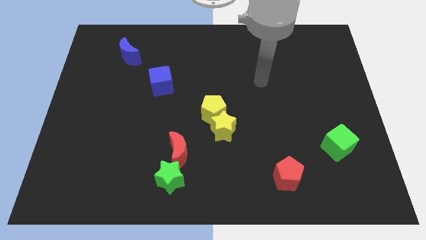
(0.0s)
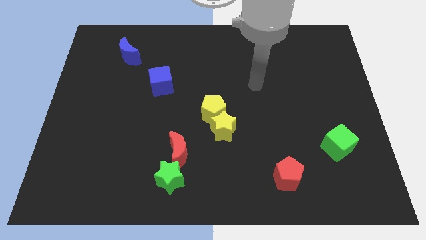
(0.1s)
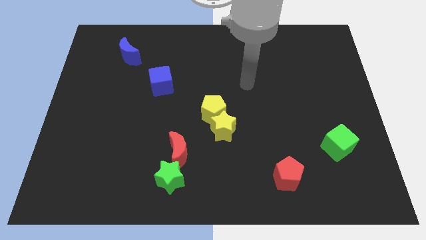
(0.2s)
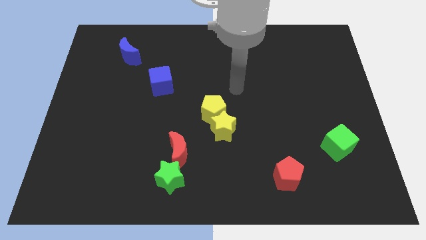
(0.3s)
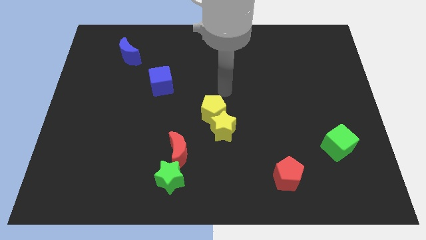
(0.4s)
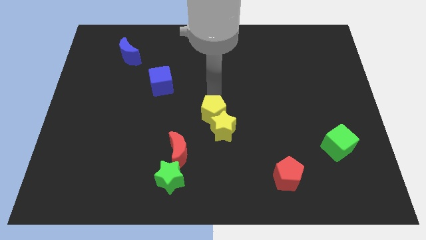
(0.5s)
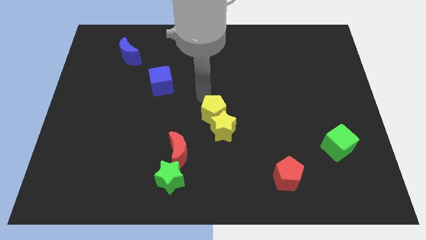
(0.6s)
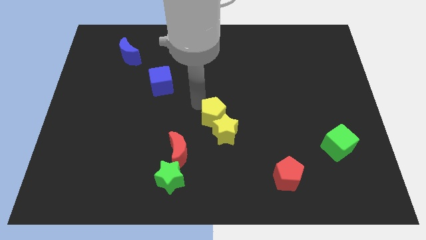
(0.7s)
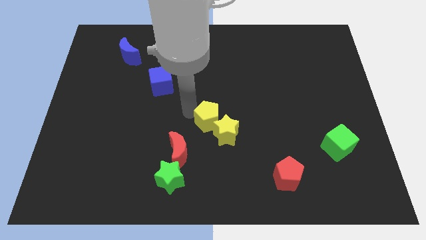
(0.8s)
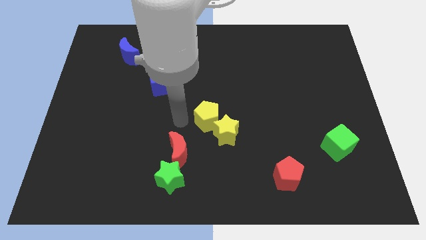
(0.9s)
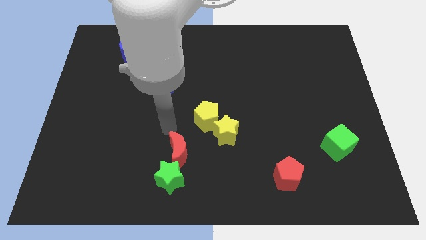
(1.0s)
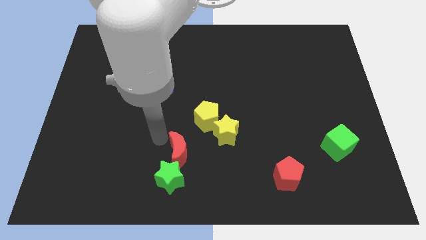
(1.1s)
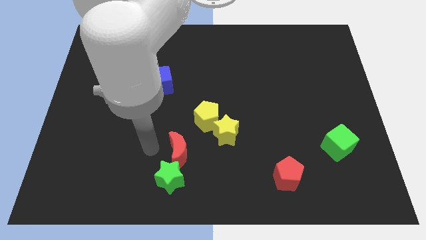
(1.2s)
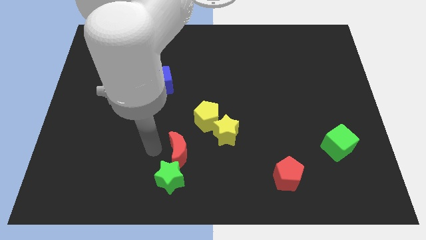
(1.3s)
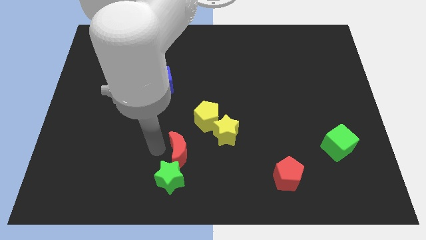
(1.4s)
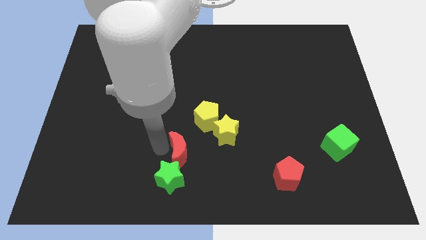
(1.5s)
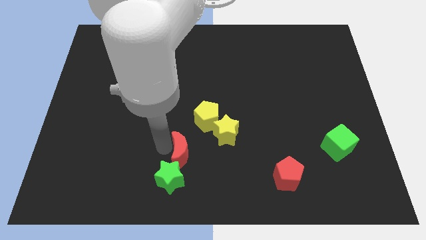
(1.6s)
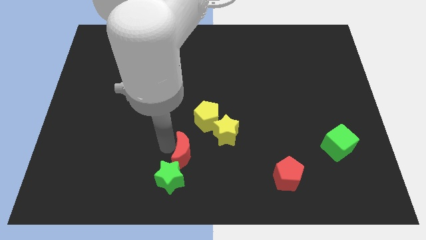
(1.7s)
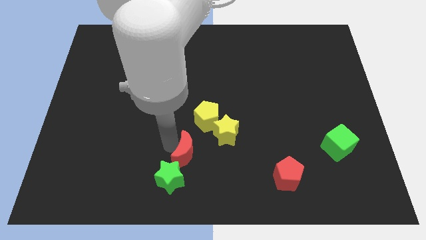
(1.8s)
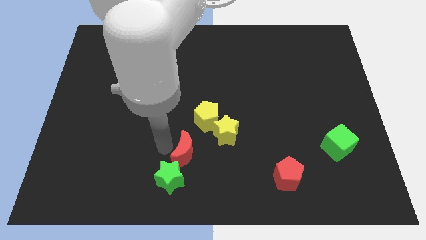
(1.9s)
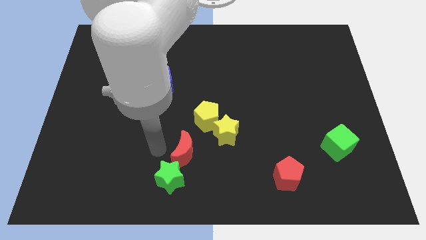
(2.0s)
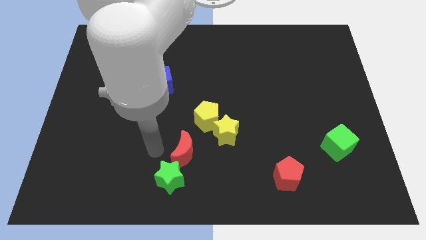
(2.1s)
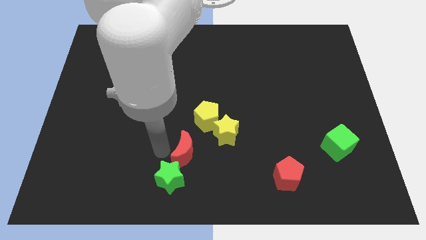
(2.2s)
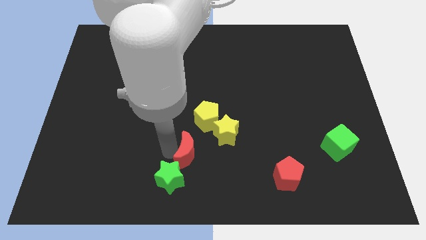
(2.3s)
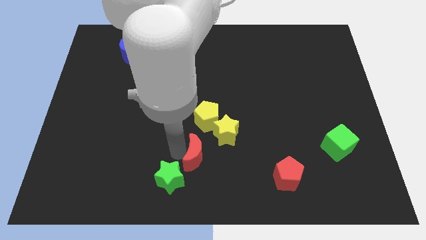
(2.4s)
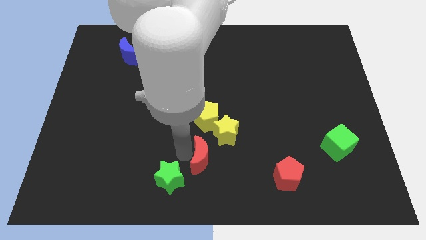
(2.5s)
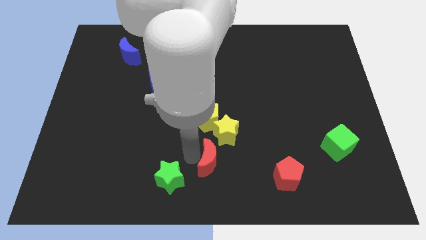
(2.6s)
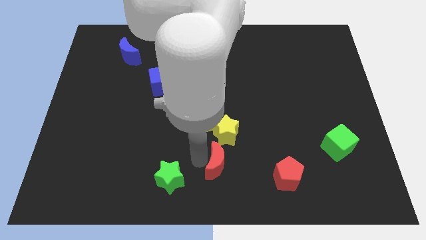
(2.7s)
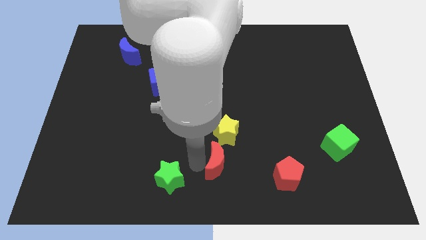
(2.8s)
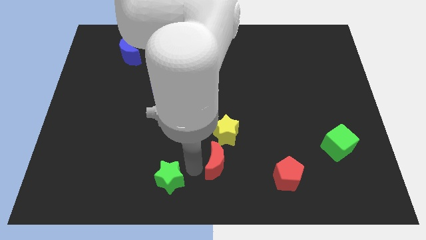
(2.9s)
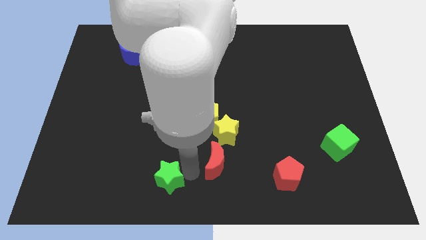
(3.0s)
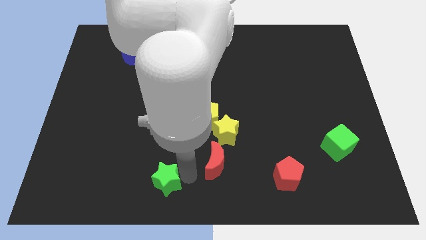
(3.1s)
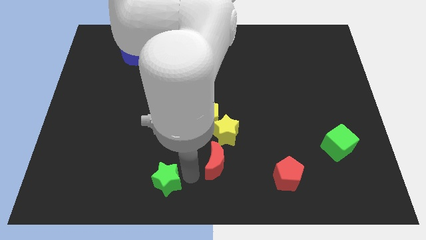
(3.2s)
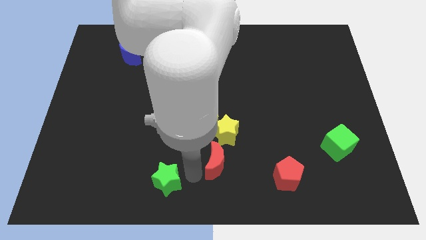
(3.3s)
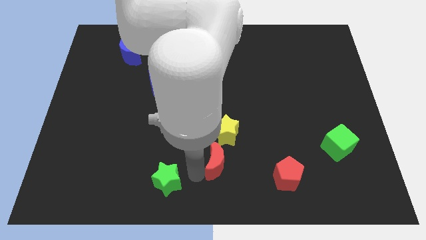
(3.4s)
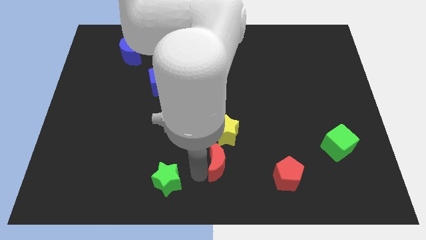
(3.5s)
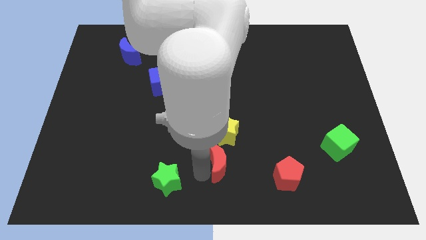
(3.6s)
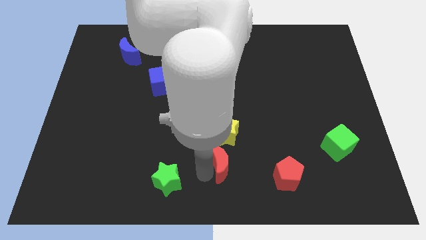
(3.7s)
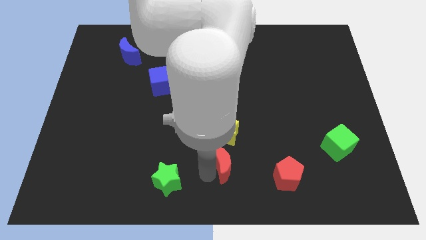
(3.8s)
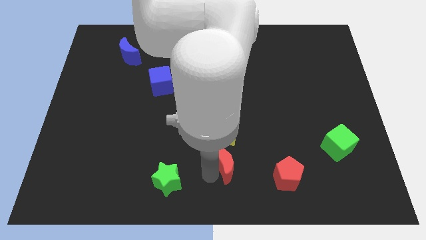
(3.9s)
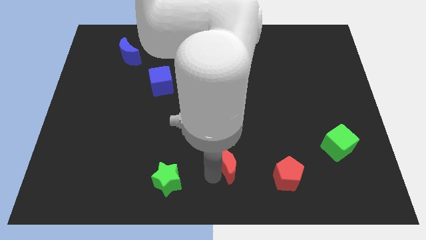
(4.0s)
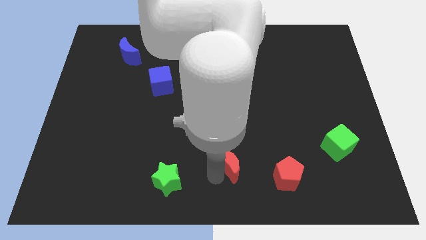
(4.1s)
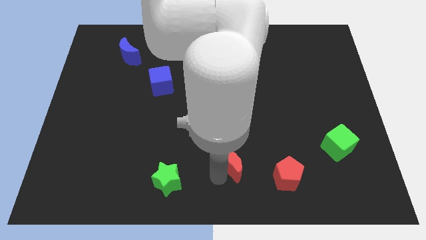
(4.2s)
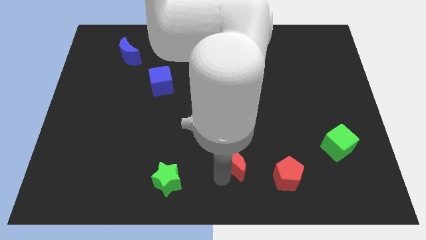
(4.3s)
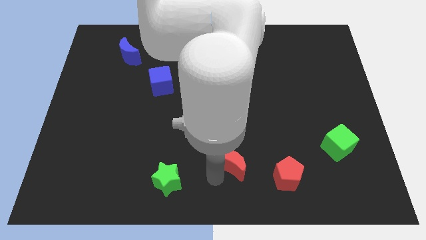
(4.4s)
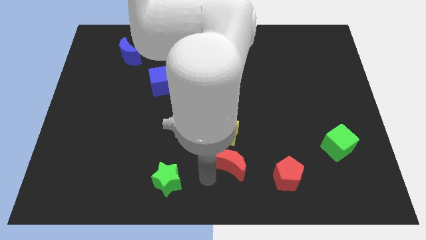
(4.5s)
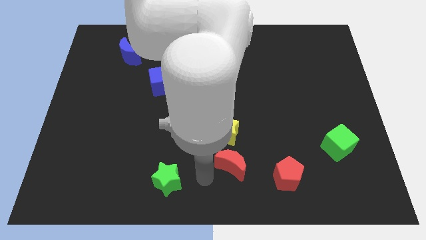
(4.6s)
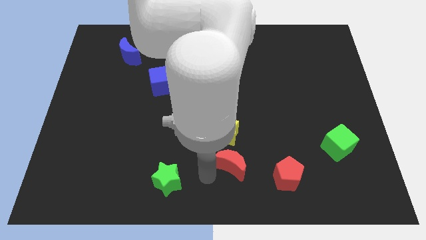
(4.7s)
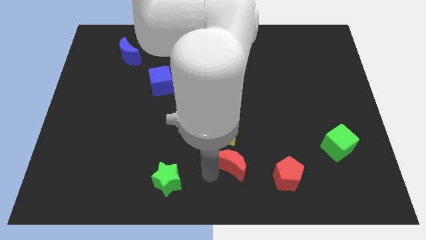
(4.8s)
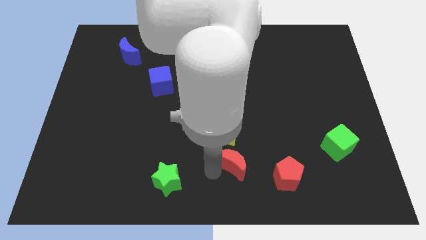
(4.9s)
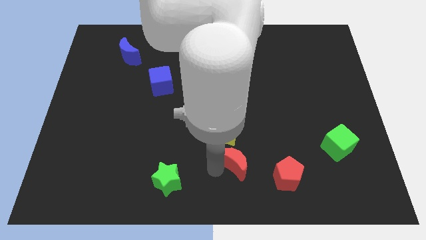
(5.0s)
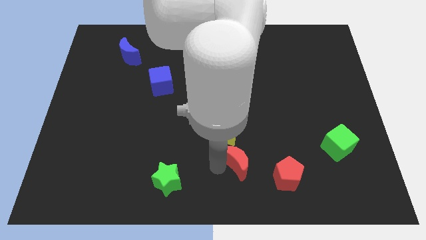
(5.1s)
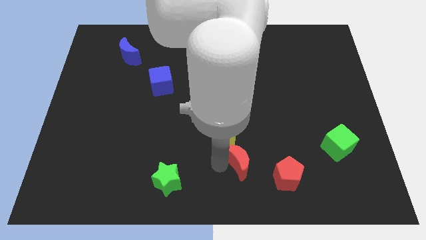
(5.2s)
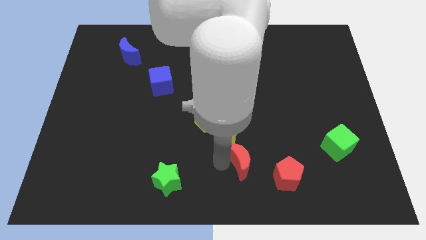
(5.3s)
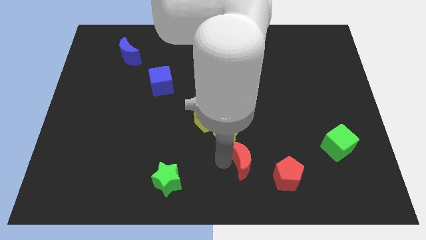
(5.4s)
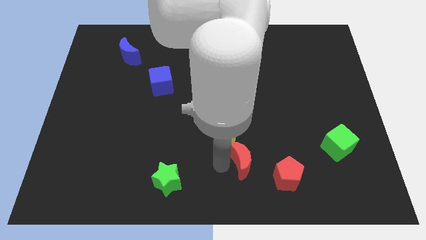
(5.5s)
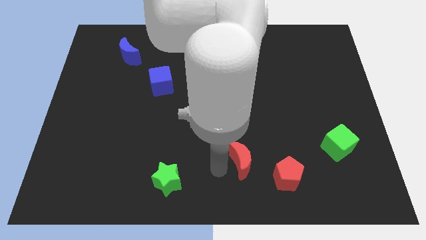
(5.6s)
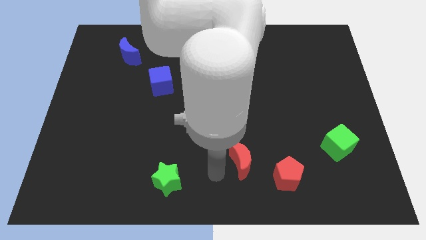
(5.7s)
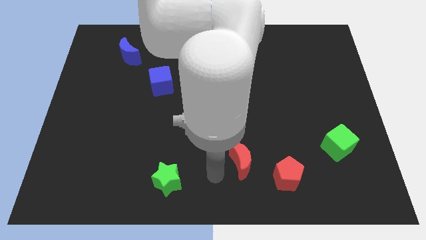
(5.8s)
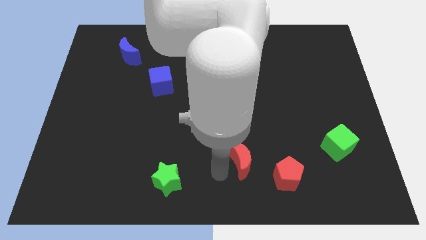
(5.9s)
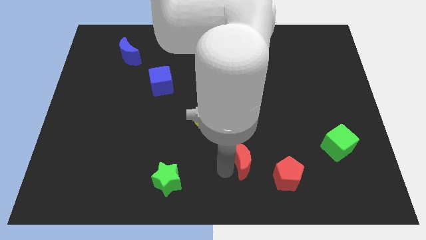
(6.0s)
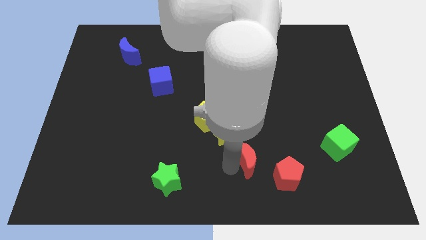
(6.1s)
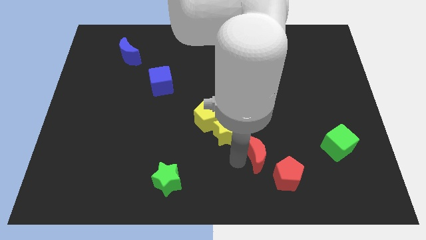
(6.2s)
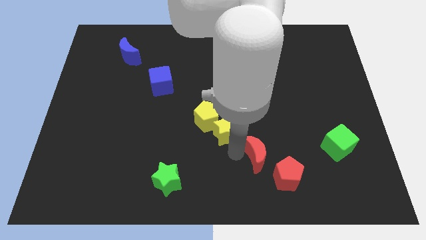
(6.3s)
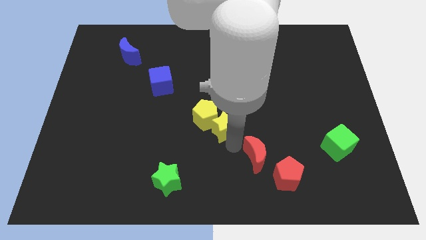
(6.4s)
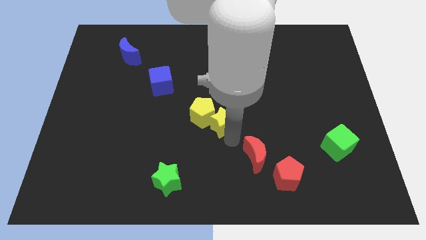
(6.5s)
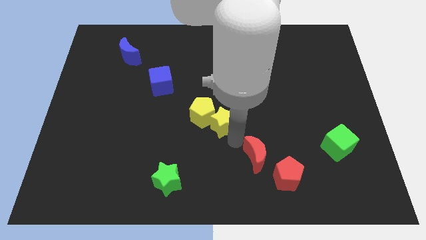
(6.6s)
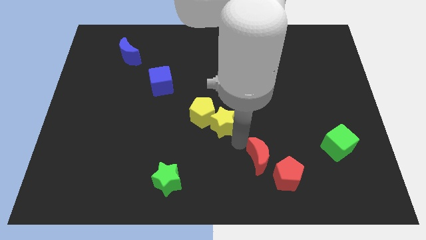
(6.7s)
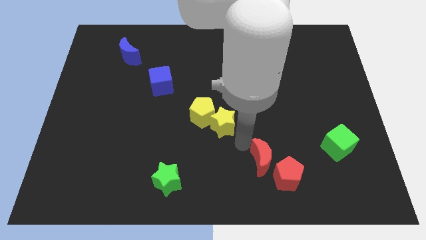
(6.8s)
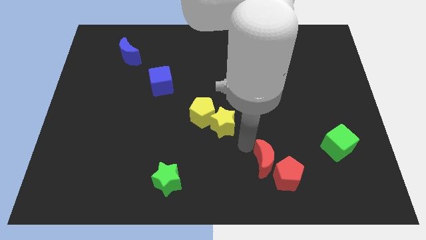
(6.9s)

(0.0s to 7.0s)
push the red moon to the red pentagon
